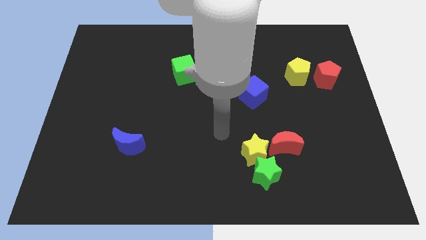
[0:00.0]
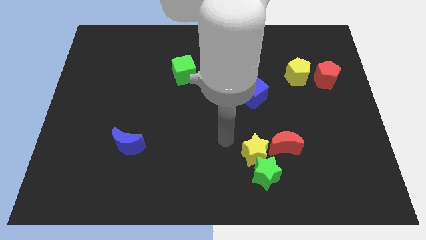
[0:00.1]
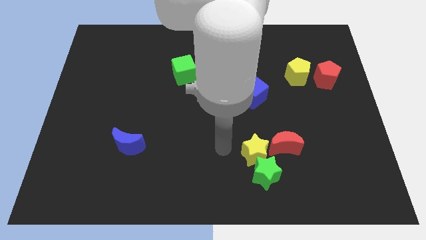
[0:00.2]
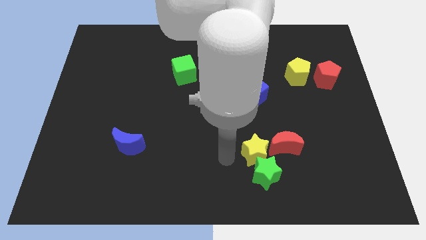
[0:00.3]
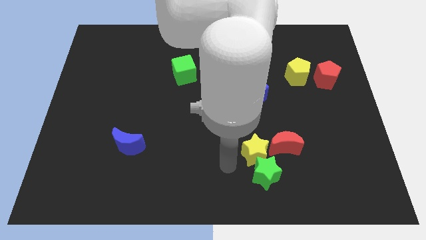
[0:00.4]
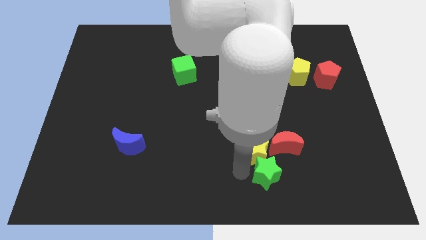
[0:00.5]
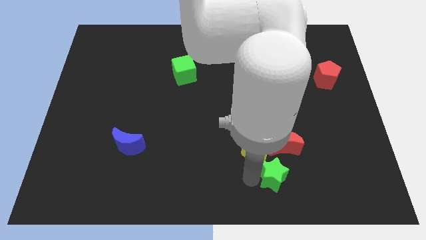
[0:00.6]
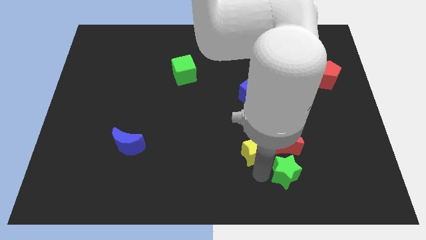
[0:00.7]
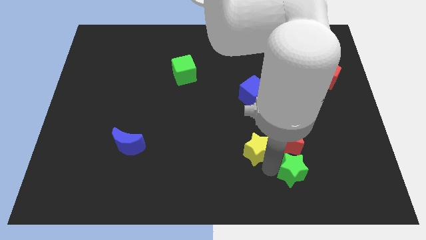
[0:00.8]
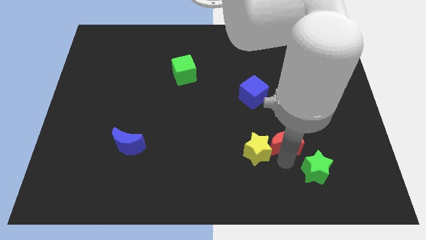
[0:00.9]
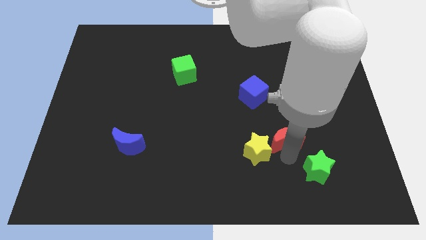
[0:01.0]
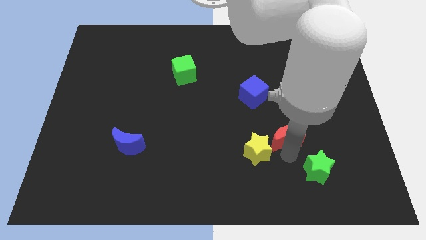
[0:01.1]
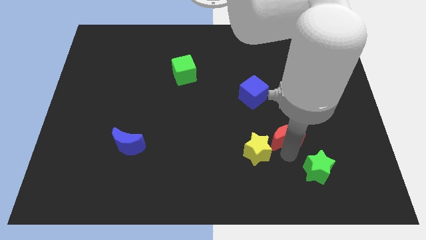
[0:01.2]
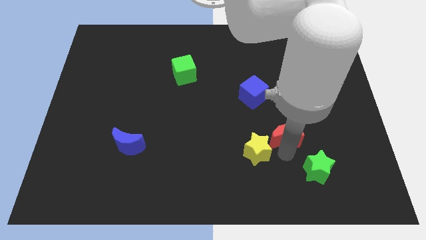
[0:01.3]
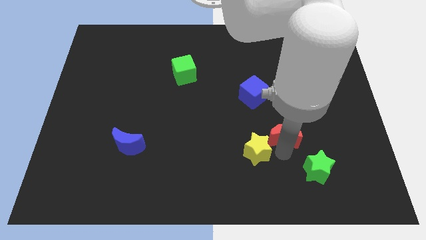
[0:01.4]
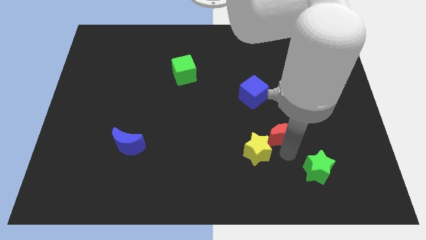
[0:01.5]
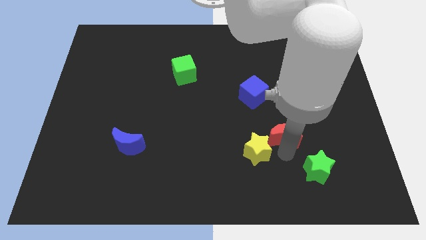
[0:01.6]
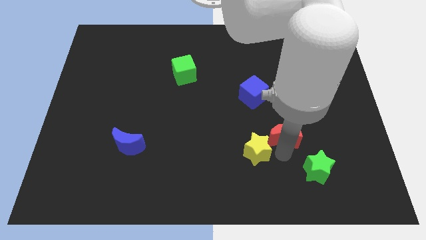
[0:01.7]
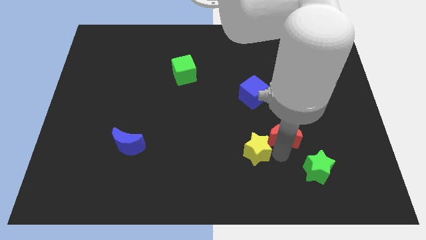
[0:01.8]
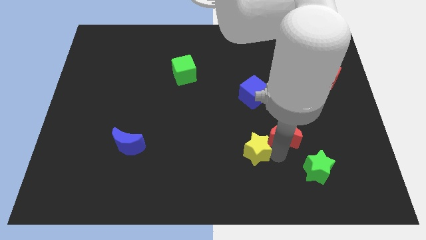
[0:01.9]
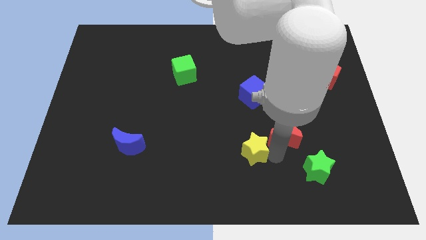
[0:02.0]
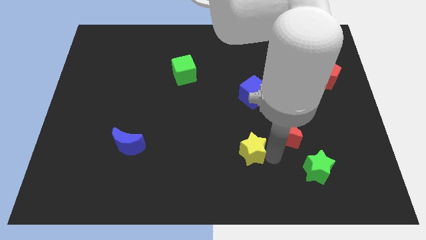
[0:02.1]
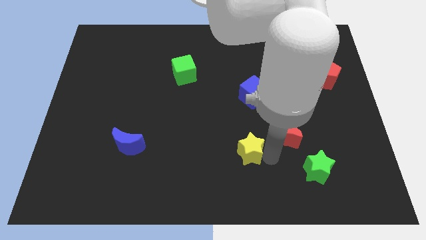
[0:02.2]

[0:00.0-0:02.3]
separate the yellow star from the green star and red moon

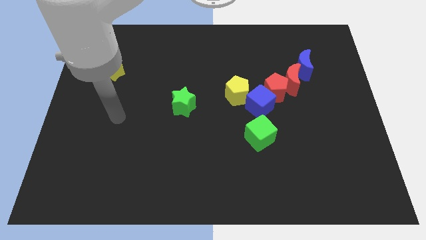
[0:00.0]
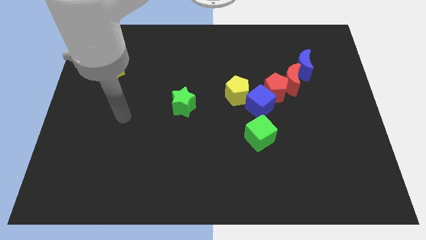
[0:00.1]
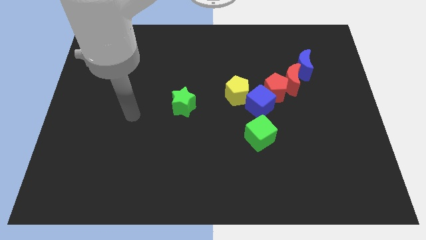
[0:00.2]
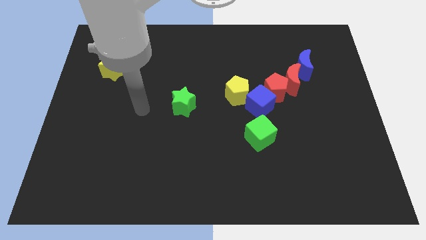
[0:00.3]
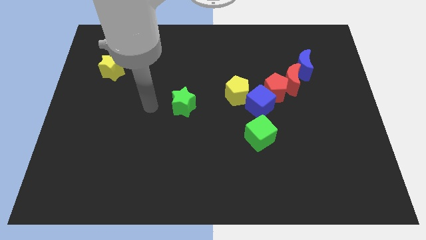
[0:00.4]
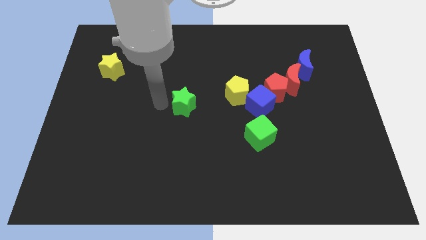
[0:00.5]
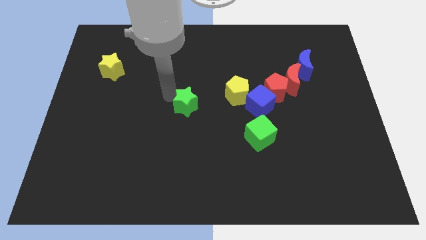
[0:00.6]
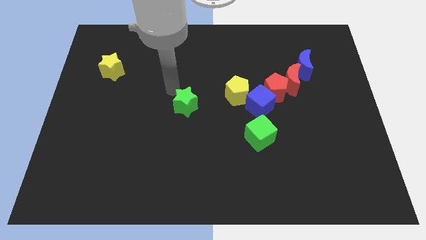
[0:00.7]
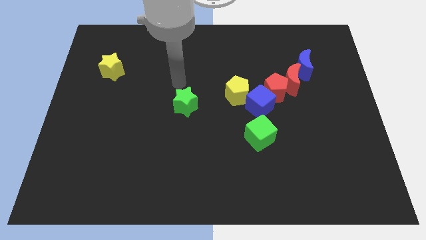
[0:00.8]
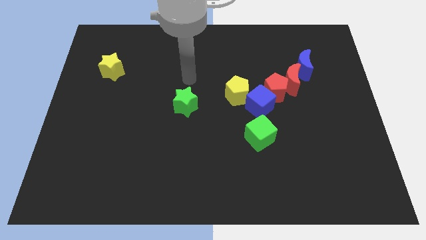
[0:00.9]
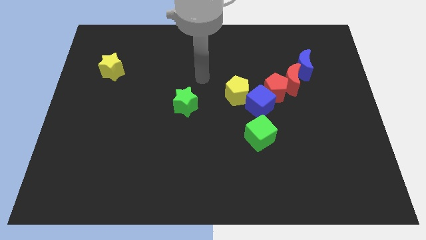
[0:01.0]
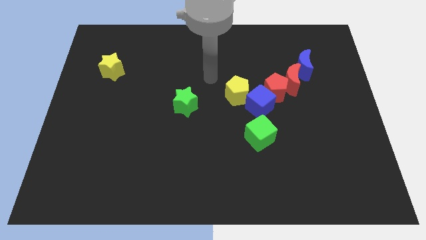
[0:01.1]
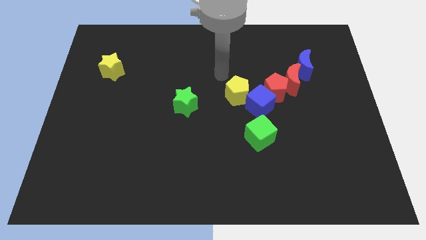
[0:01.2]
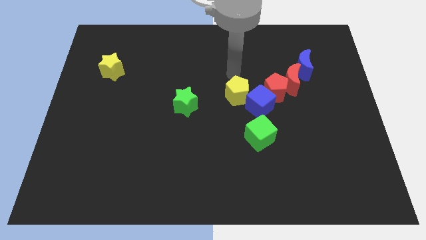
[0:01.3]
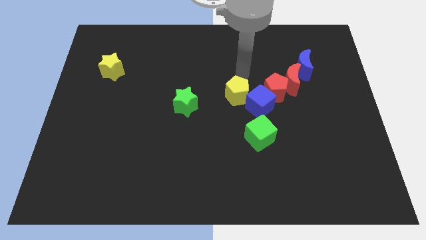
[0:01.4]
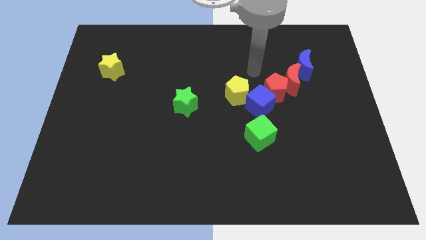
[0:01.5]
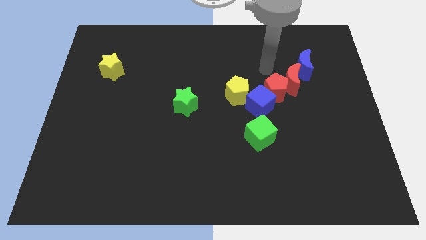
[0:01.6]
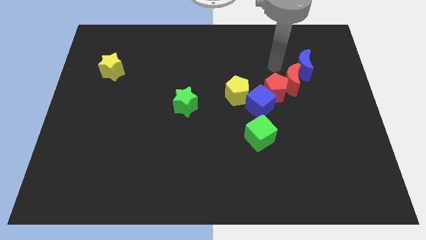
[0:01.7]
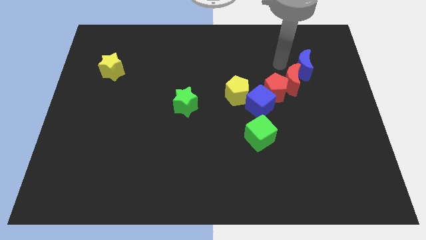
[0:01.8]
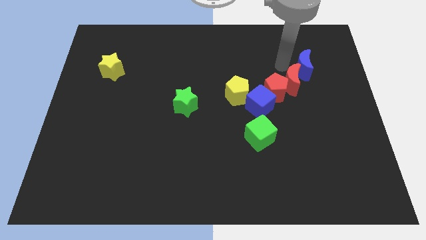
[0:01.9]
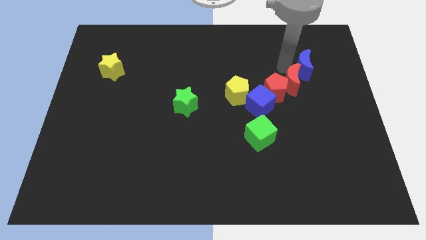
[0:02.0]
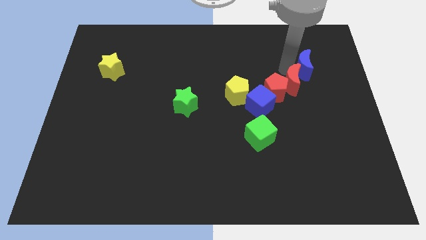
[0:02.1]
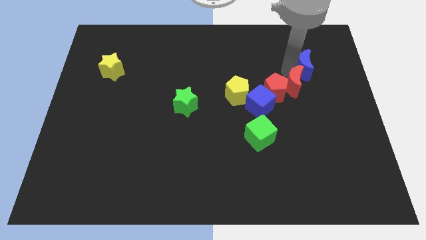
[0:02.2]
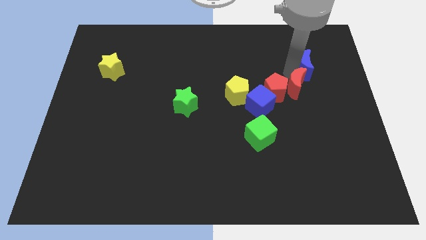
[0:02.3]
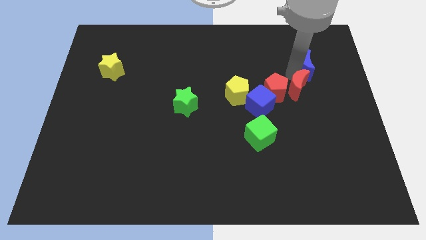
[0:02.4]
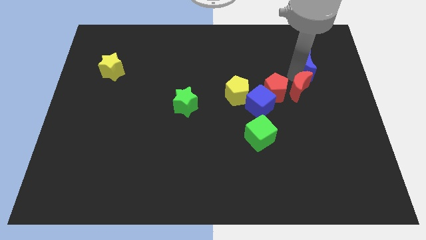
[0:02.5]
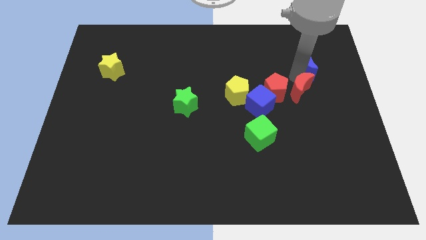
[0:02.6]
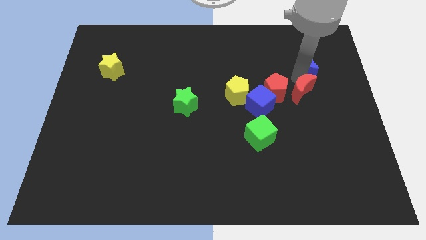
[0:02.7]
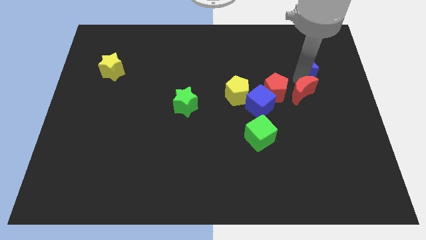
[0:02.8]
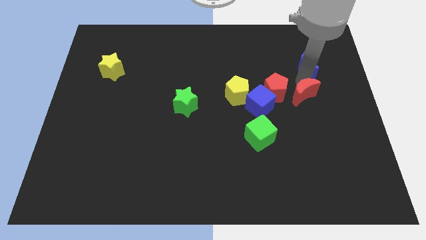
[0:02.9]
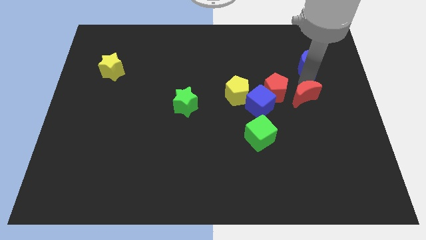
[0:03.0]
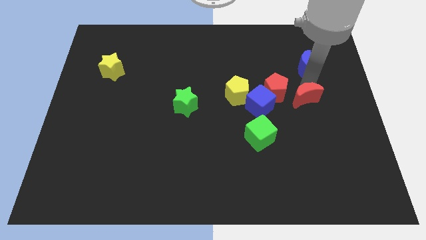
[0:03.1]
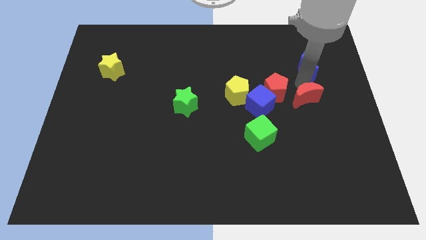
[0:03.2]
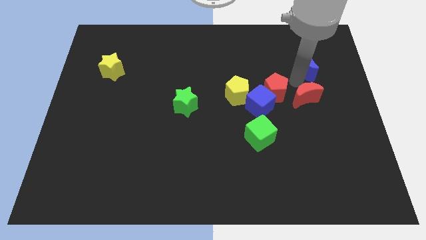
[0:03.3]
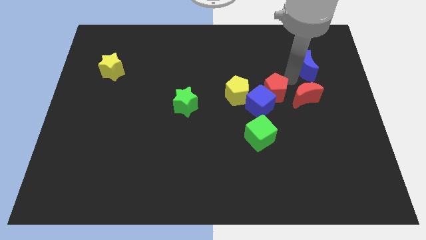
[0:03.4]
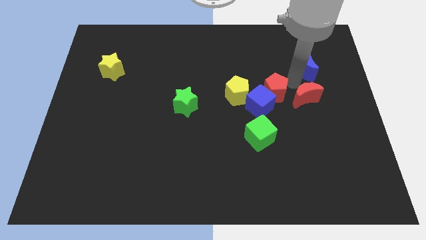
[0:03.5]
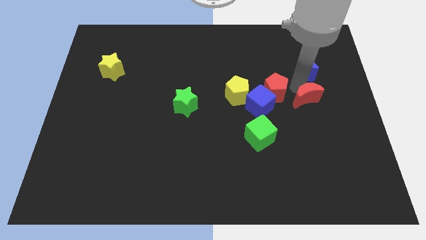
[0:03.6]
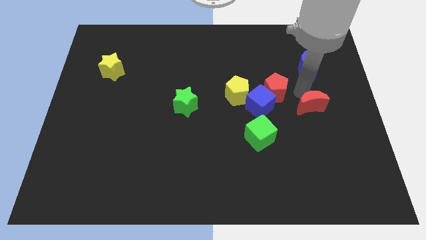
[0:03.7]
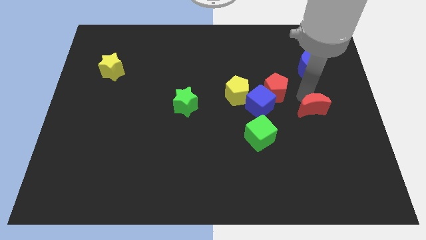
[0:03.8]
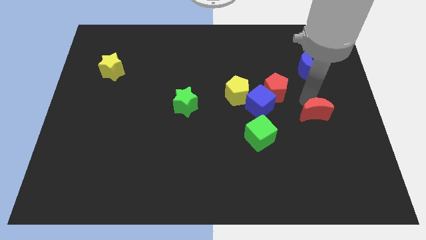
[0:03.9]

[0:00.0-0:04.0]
move the red moon away from the red pentagon and blue moon

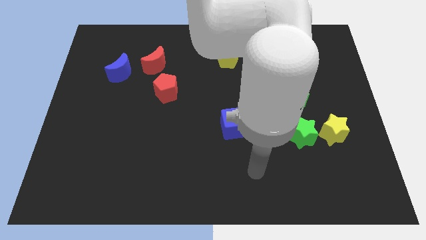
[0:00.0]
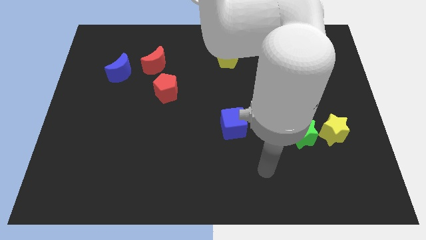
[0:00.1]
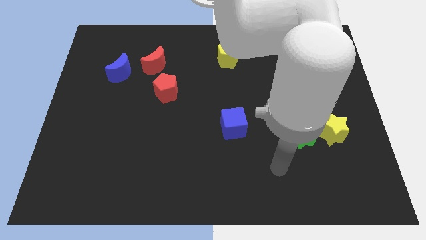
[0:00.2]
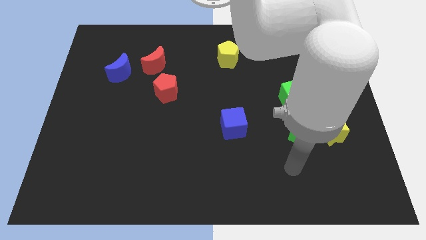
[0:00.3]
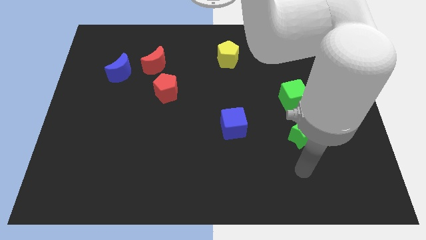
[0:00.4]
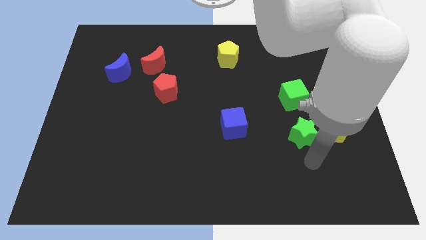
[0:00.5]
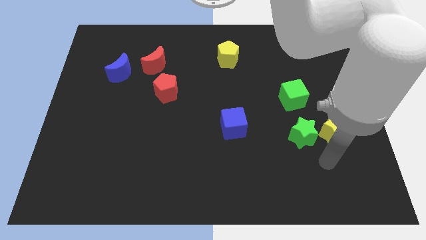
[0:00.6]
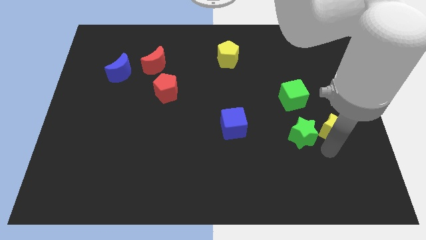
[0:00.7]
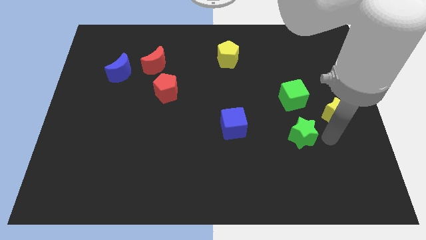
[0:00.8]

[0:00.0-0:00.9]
separate the green star from the yellow star

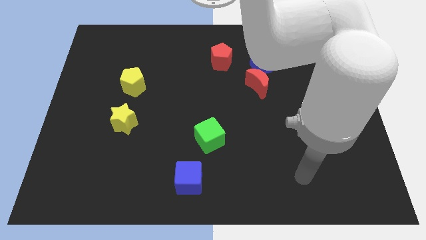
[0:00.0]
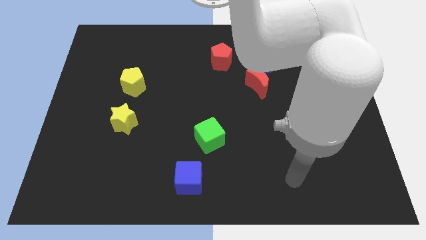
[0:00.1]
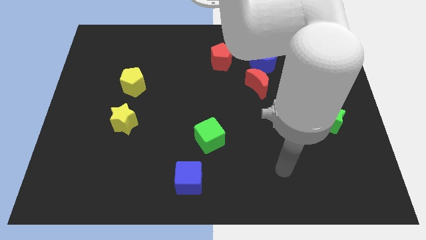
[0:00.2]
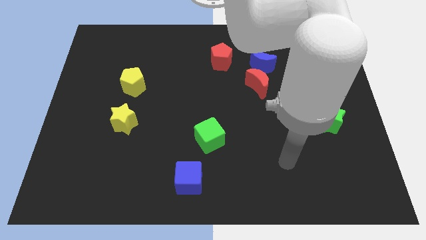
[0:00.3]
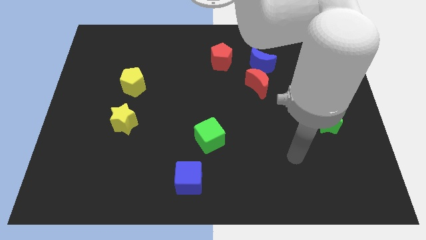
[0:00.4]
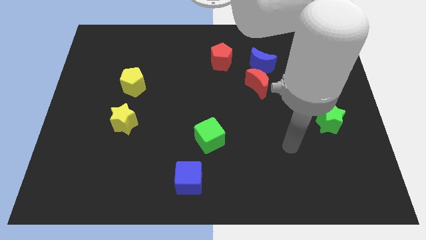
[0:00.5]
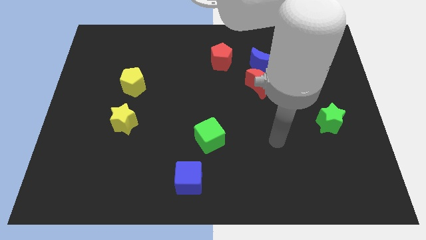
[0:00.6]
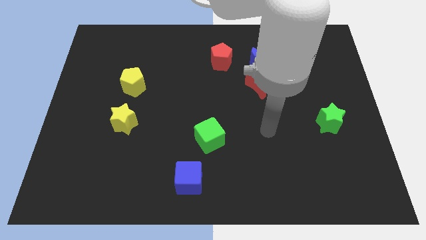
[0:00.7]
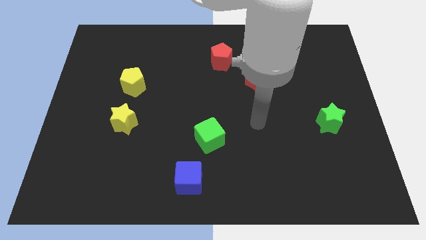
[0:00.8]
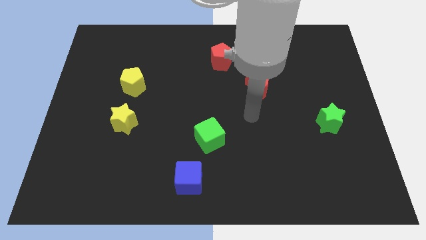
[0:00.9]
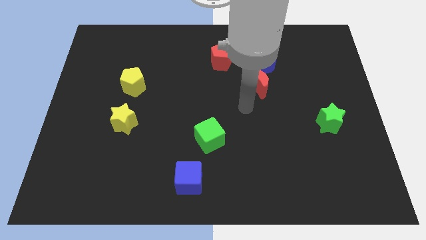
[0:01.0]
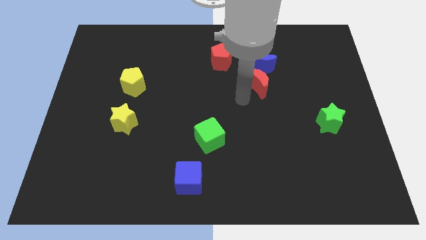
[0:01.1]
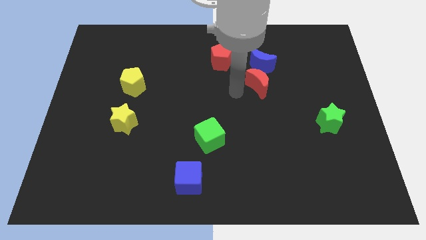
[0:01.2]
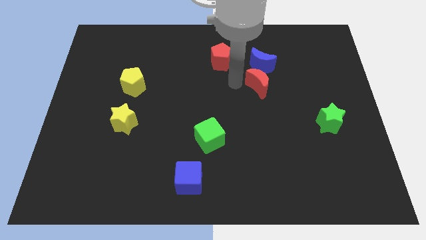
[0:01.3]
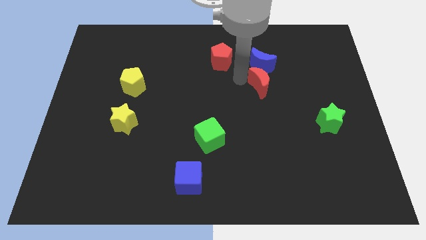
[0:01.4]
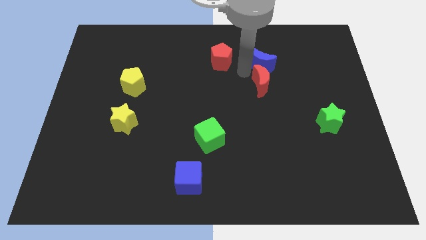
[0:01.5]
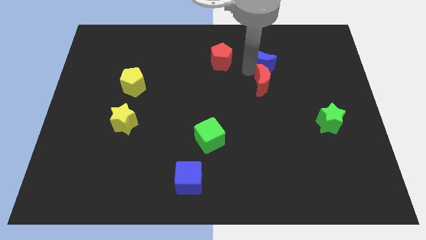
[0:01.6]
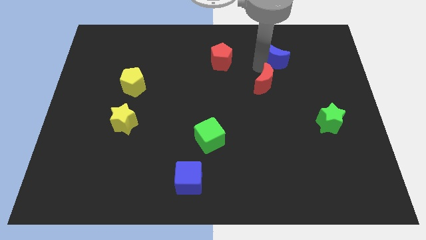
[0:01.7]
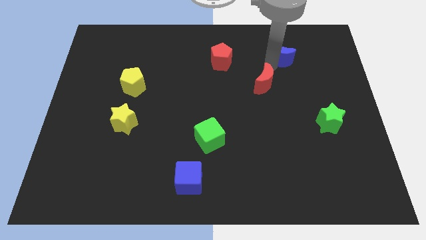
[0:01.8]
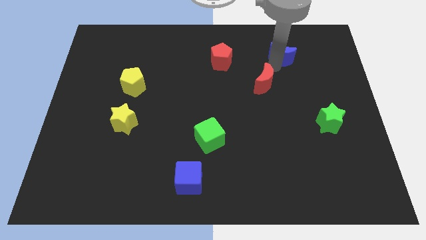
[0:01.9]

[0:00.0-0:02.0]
pull the red moon apart from the blue moon

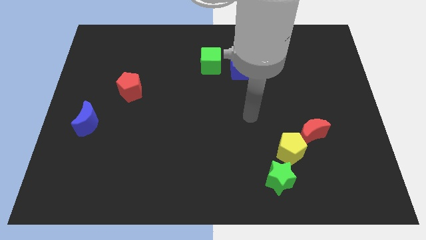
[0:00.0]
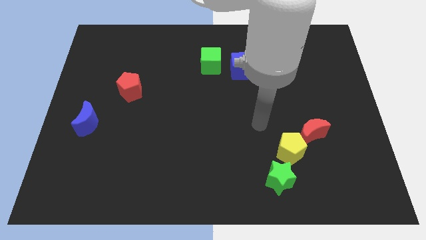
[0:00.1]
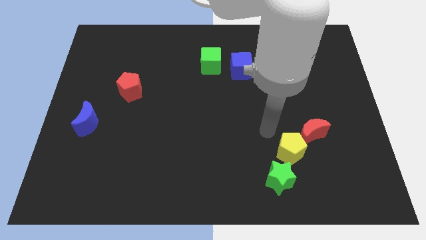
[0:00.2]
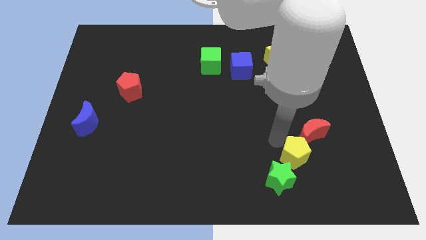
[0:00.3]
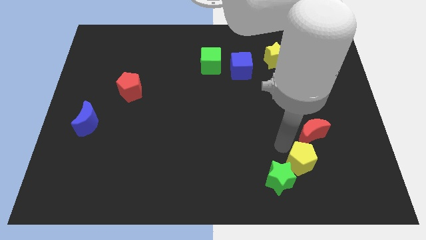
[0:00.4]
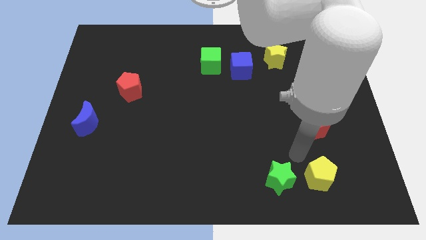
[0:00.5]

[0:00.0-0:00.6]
pull the red moon apart from the yellow pentagon
